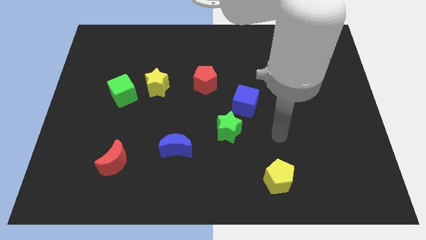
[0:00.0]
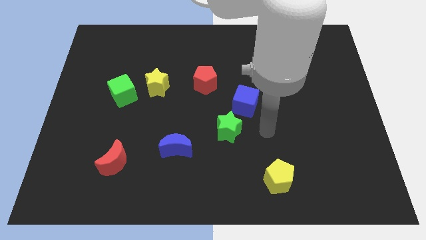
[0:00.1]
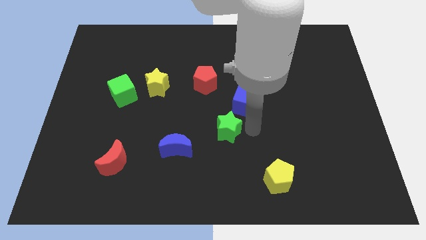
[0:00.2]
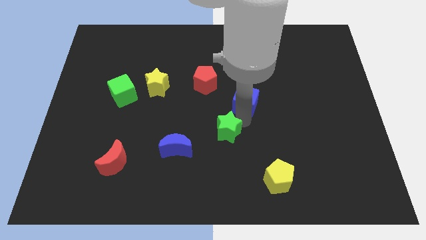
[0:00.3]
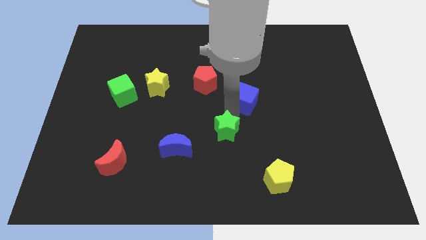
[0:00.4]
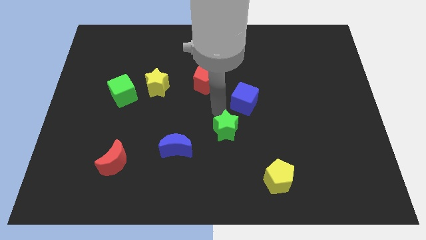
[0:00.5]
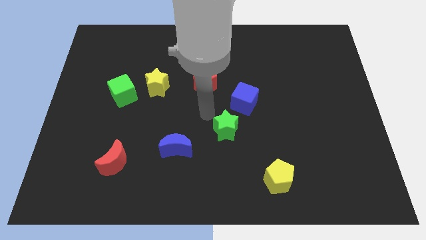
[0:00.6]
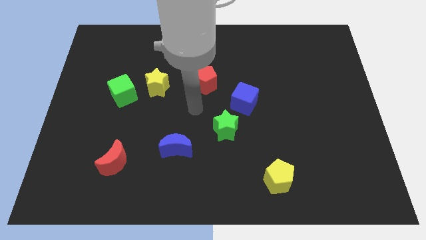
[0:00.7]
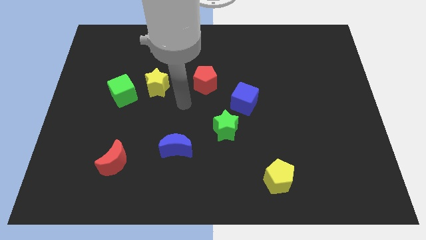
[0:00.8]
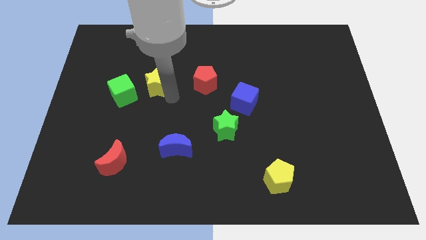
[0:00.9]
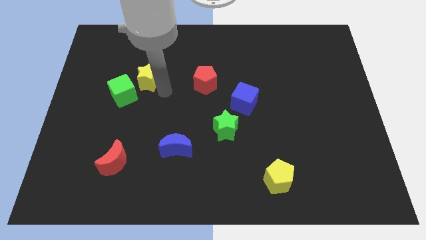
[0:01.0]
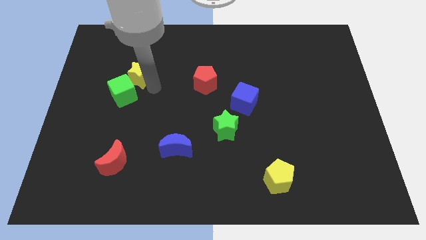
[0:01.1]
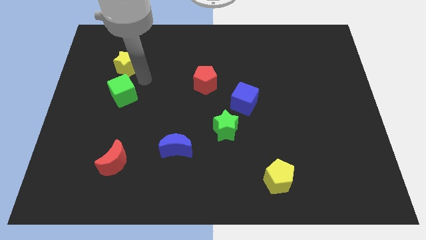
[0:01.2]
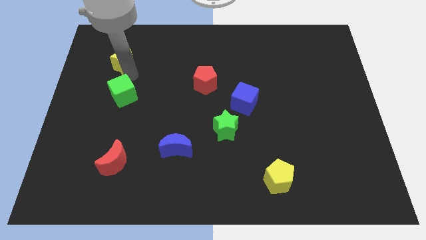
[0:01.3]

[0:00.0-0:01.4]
separate the green cube from the yellow star

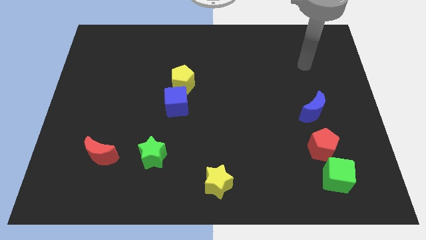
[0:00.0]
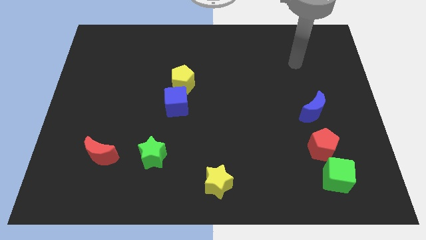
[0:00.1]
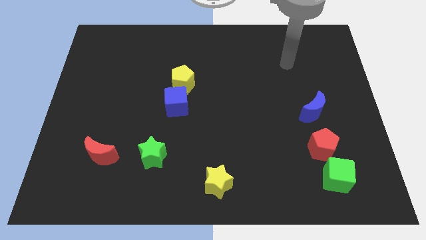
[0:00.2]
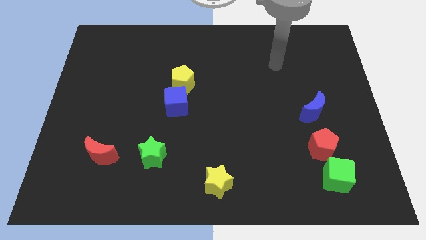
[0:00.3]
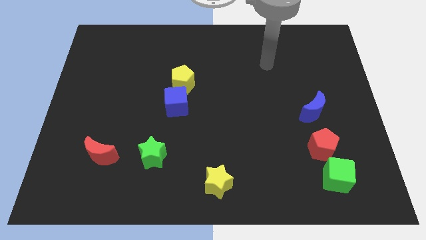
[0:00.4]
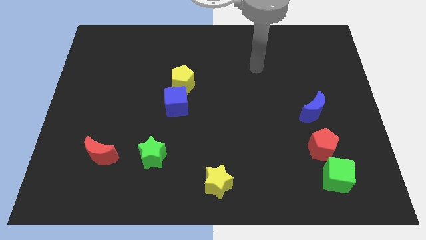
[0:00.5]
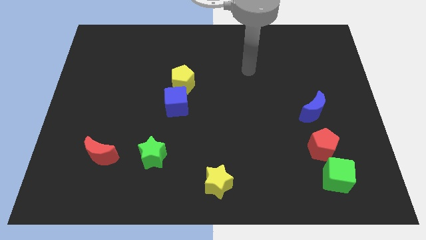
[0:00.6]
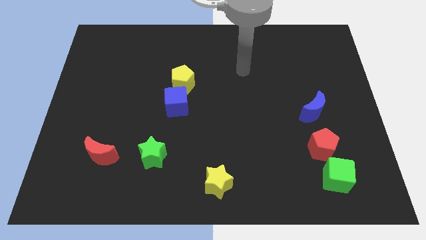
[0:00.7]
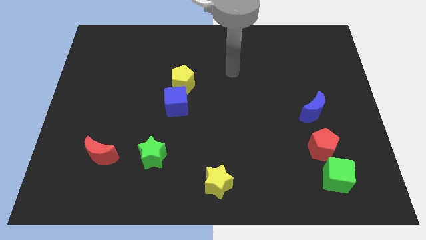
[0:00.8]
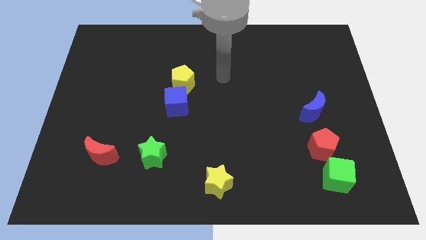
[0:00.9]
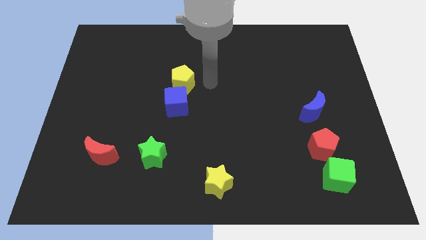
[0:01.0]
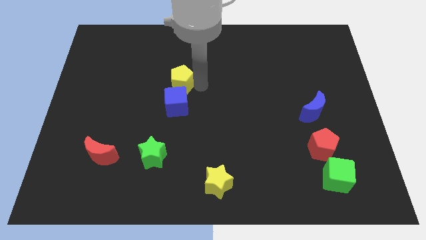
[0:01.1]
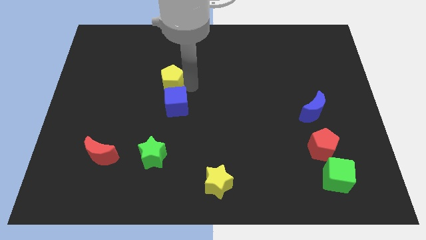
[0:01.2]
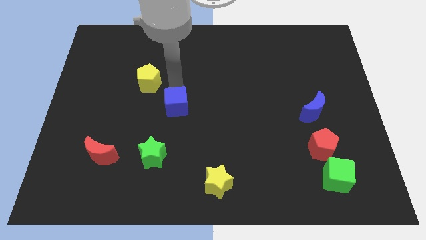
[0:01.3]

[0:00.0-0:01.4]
pull the blue cube apart from the yellow pentagon

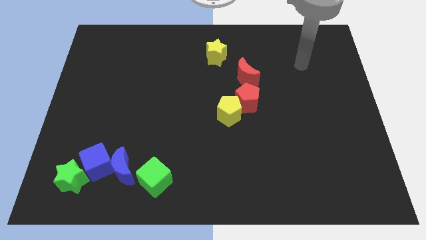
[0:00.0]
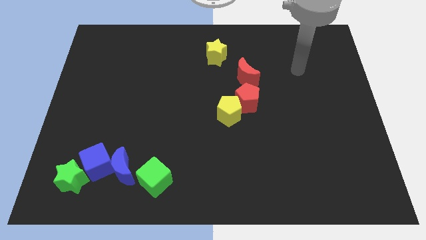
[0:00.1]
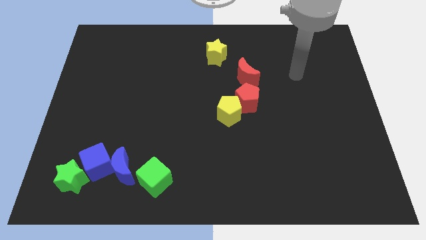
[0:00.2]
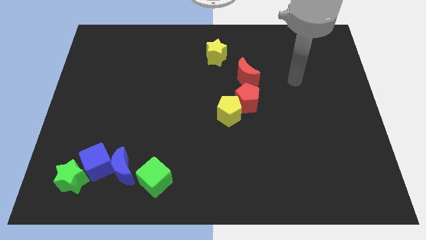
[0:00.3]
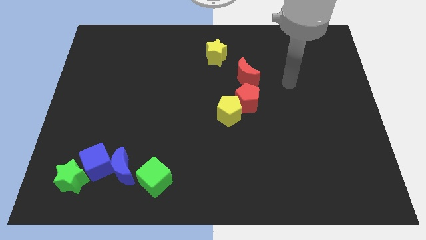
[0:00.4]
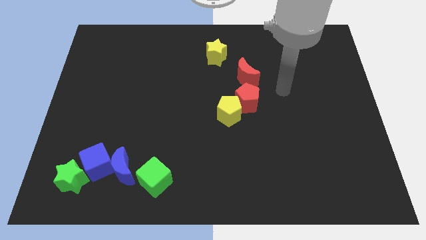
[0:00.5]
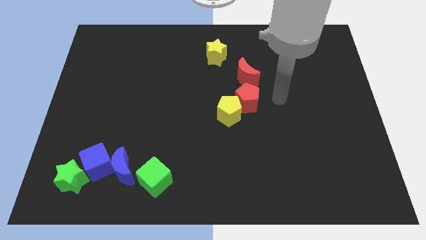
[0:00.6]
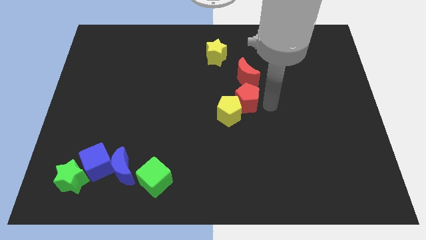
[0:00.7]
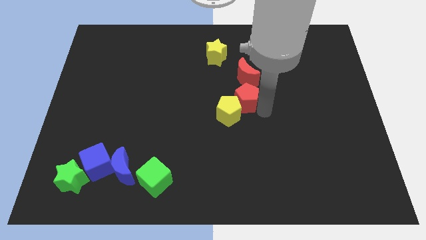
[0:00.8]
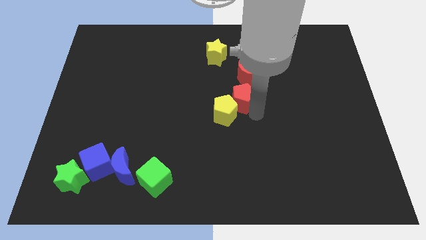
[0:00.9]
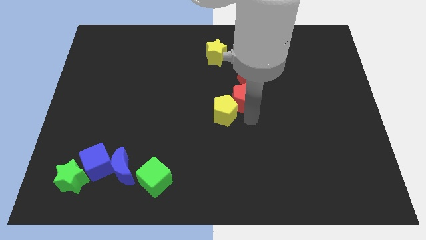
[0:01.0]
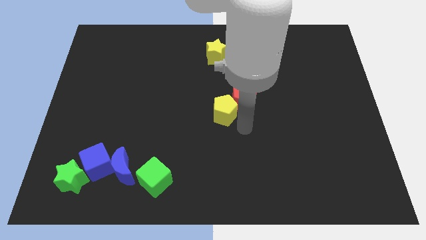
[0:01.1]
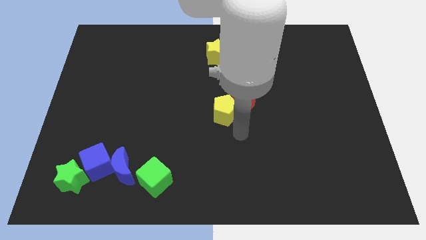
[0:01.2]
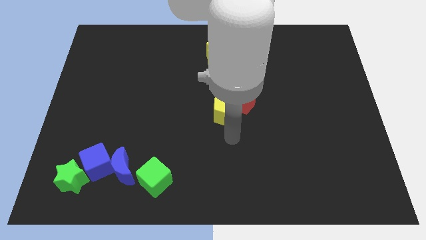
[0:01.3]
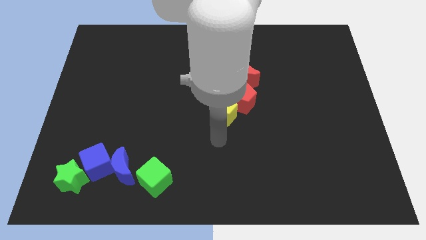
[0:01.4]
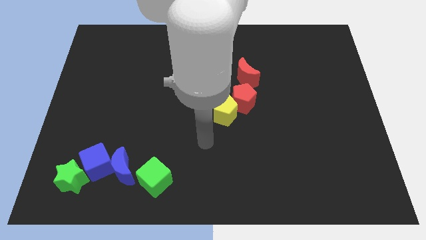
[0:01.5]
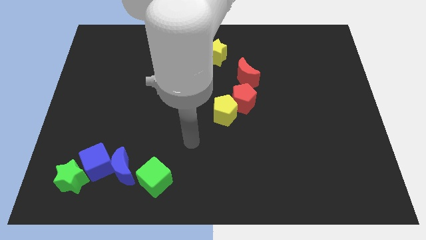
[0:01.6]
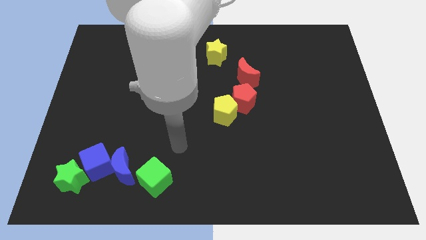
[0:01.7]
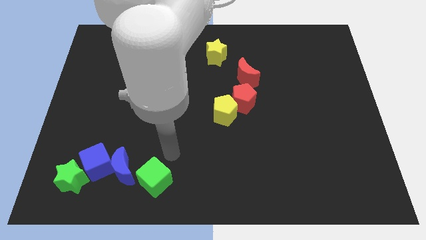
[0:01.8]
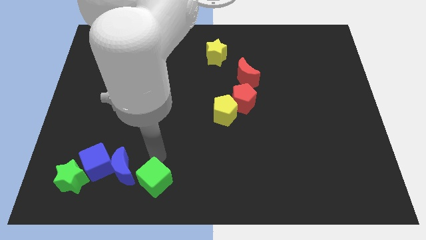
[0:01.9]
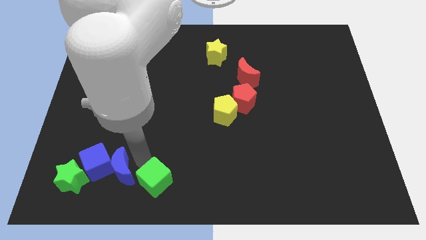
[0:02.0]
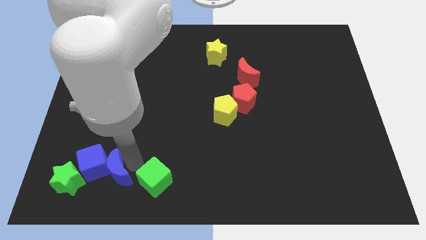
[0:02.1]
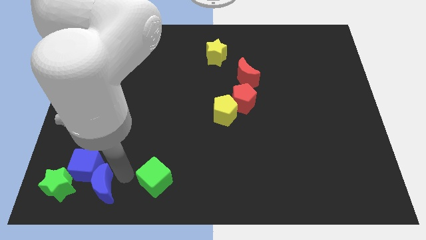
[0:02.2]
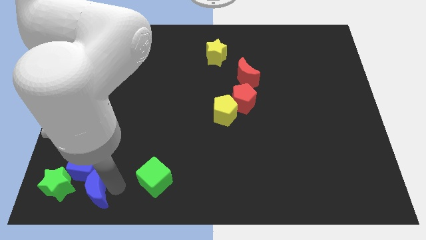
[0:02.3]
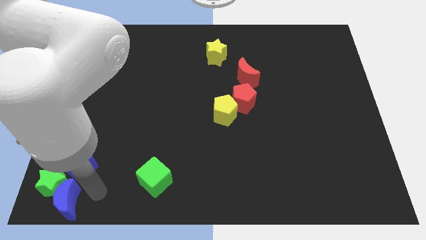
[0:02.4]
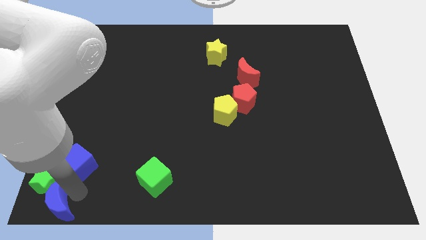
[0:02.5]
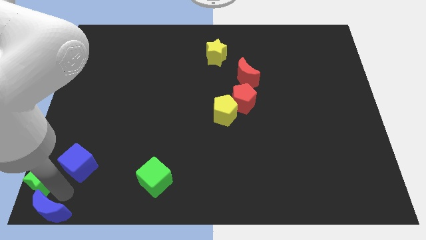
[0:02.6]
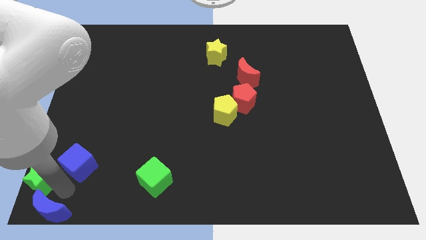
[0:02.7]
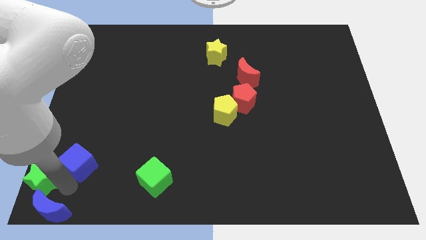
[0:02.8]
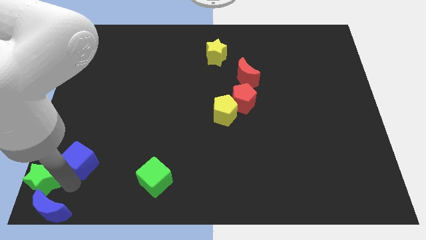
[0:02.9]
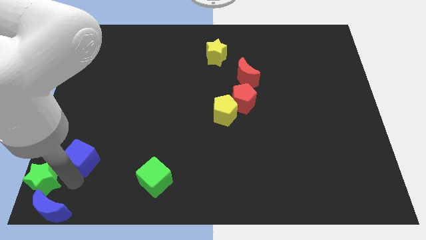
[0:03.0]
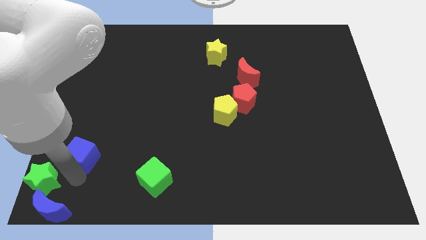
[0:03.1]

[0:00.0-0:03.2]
separate the blue cube from the blue moon and green star

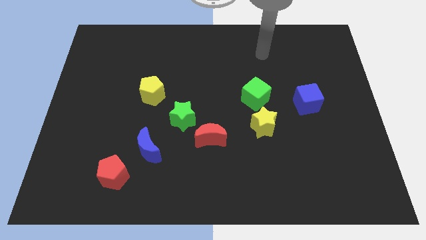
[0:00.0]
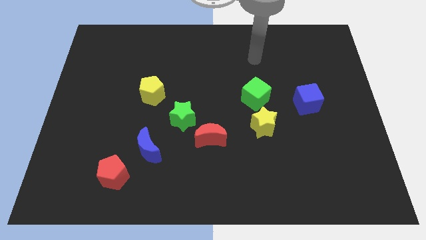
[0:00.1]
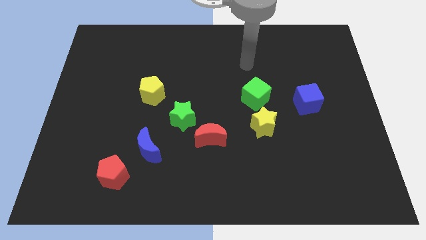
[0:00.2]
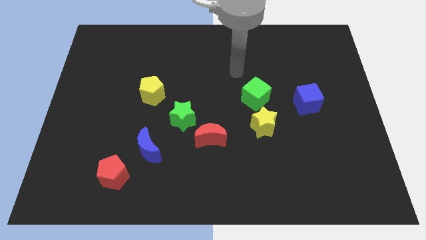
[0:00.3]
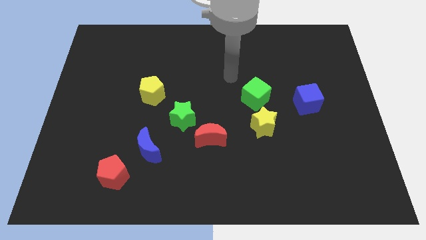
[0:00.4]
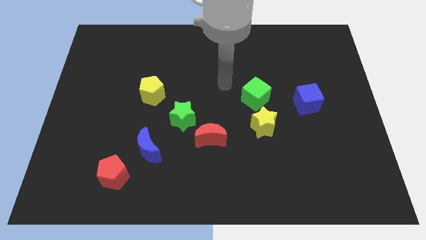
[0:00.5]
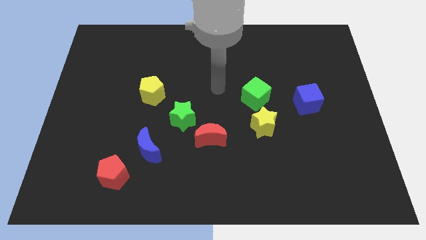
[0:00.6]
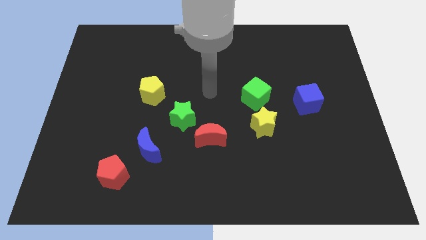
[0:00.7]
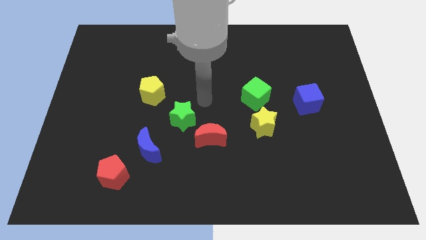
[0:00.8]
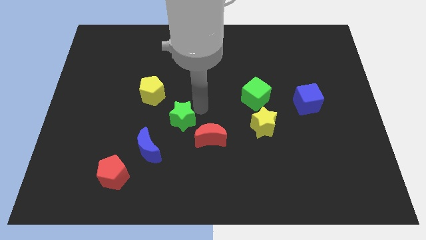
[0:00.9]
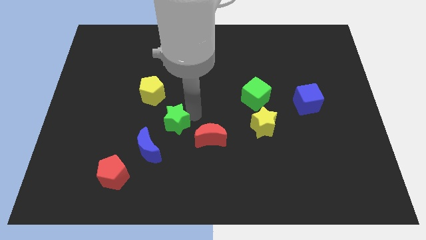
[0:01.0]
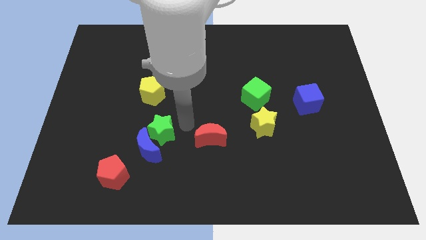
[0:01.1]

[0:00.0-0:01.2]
pull the red moon apart from the green star

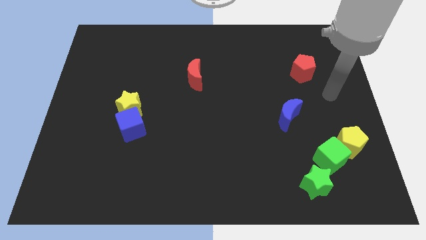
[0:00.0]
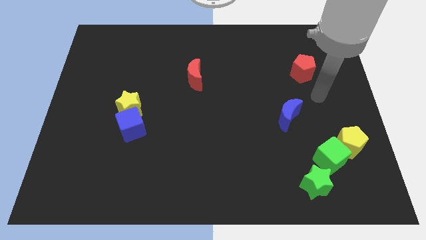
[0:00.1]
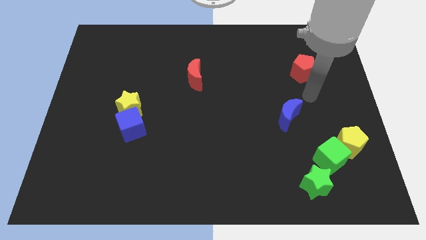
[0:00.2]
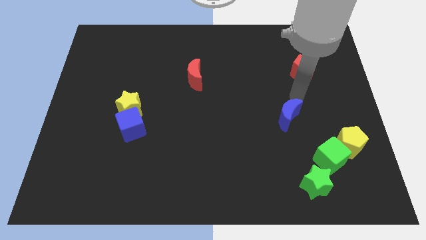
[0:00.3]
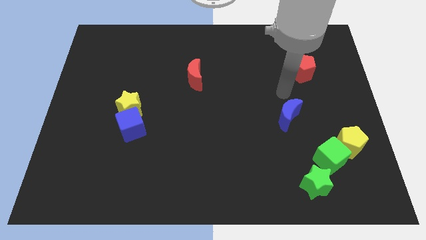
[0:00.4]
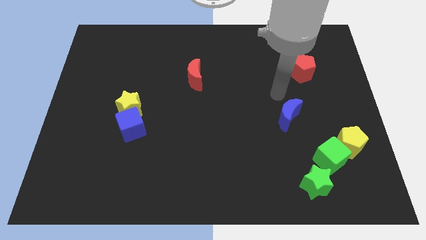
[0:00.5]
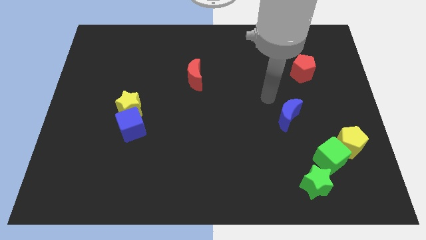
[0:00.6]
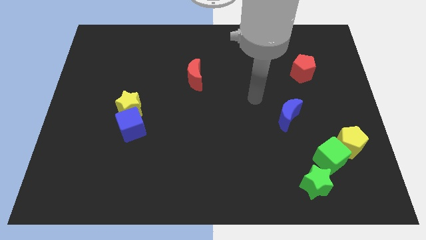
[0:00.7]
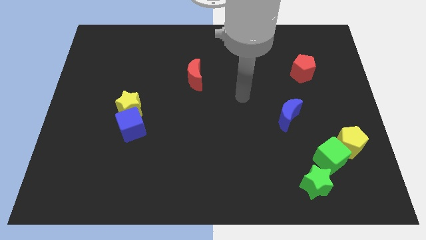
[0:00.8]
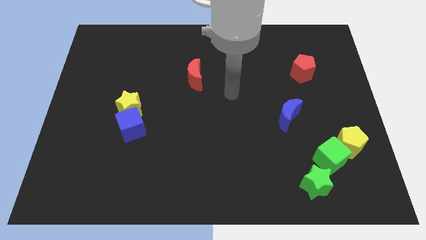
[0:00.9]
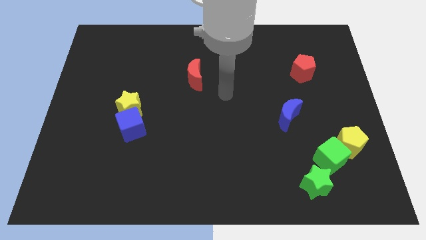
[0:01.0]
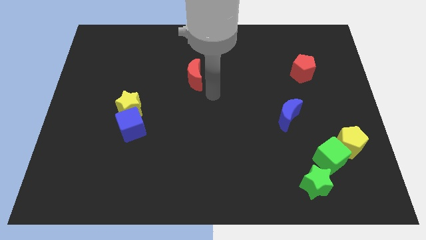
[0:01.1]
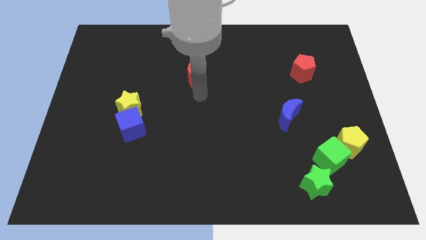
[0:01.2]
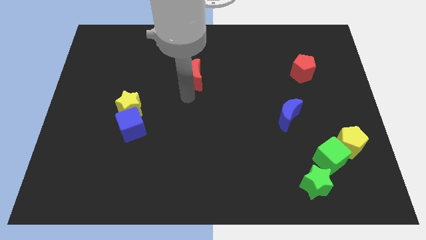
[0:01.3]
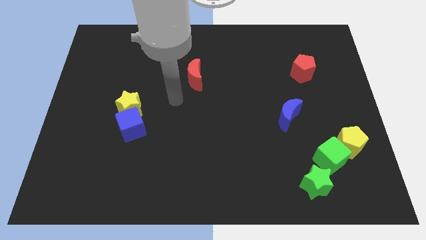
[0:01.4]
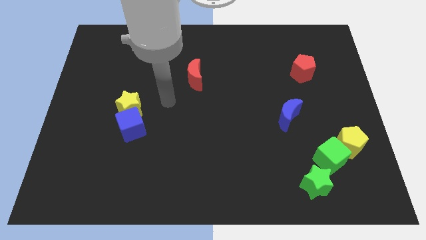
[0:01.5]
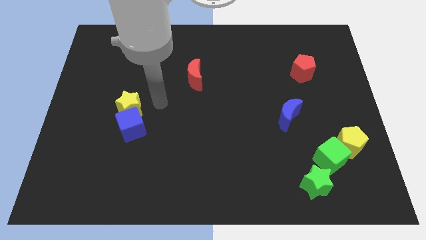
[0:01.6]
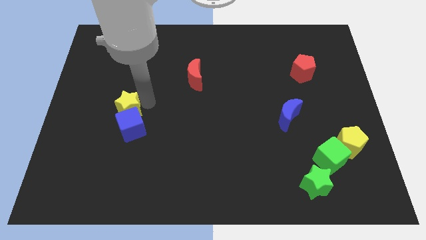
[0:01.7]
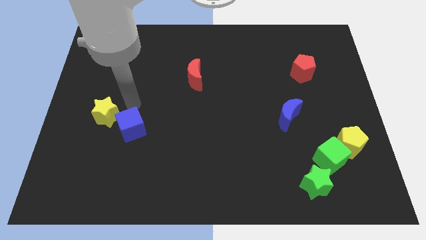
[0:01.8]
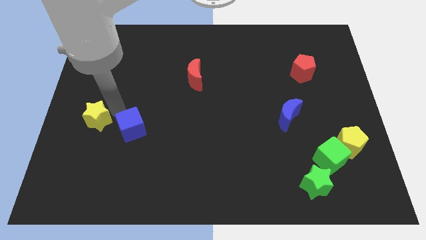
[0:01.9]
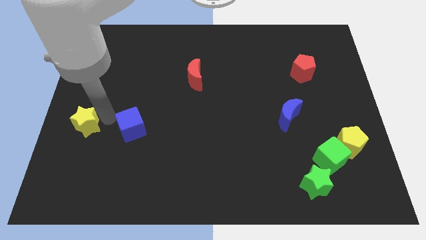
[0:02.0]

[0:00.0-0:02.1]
pull the blue cube apart from the yellow star
